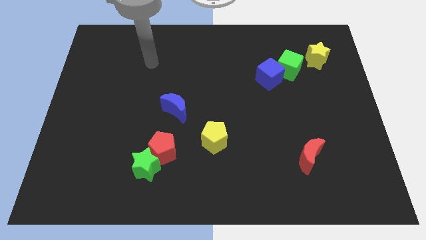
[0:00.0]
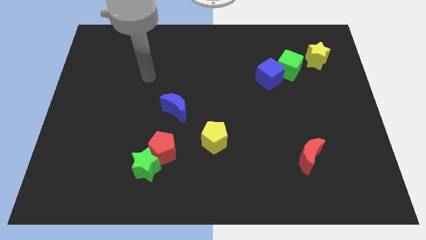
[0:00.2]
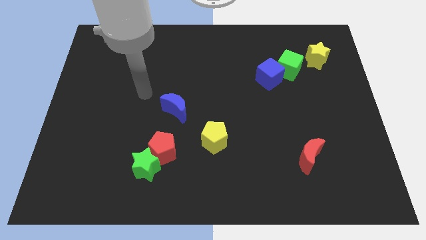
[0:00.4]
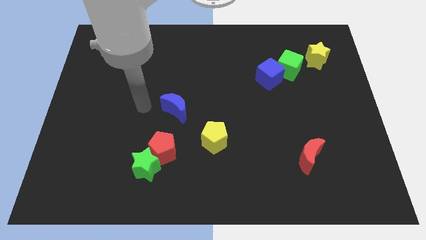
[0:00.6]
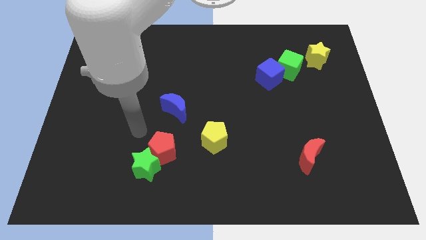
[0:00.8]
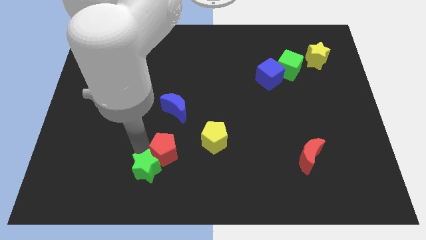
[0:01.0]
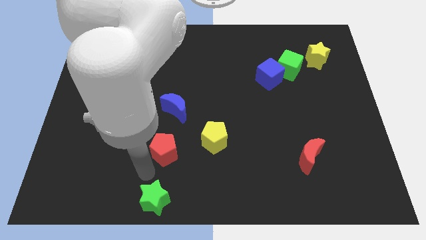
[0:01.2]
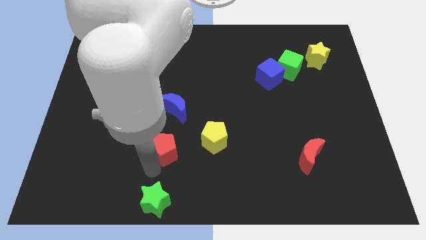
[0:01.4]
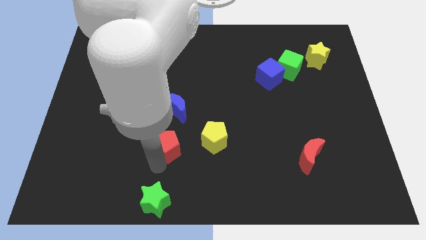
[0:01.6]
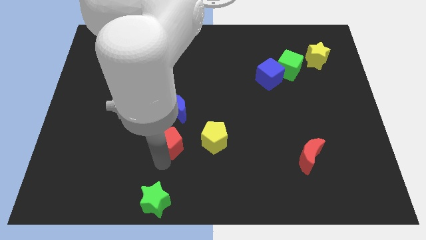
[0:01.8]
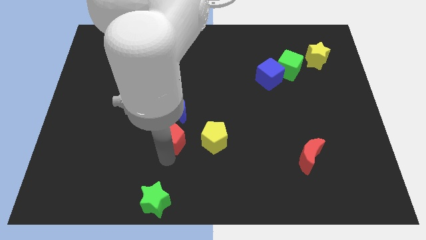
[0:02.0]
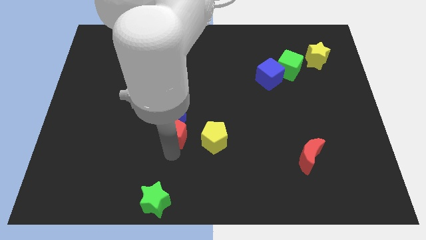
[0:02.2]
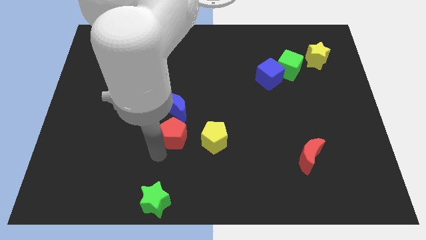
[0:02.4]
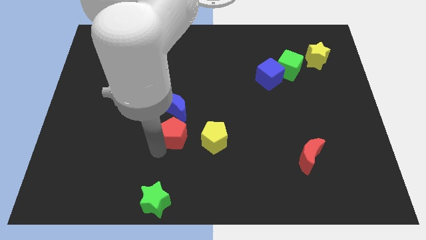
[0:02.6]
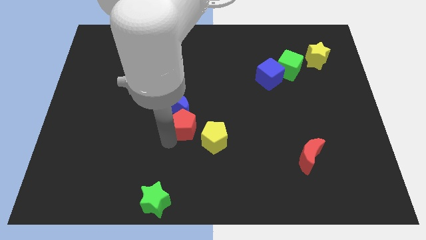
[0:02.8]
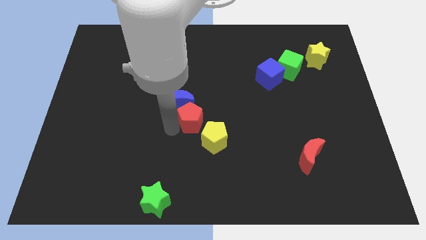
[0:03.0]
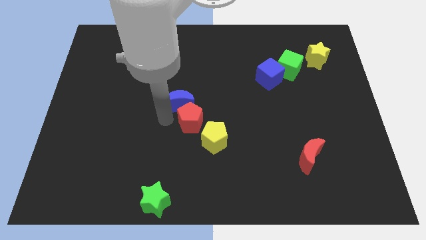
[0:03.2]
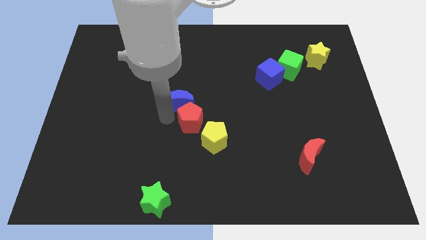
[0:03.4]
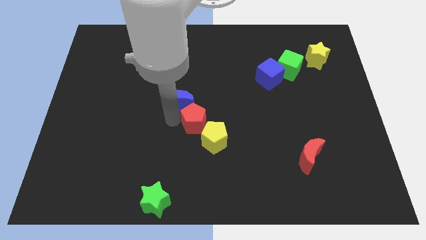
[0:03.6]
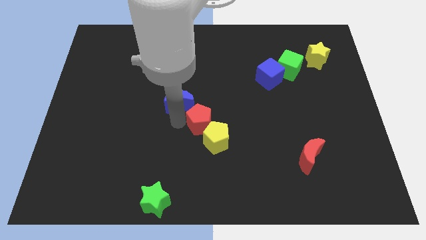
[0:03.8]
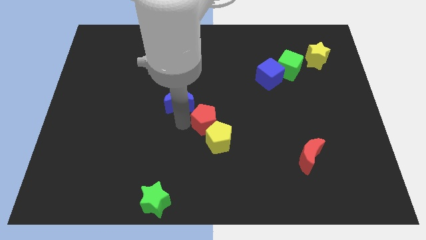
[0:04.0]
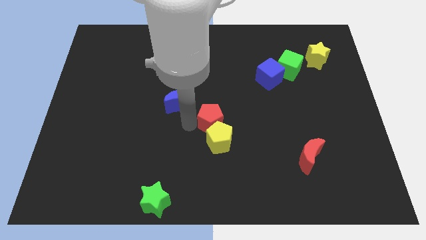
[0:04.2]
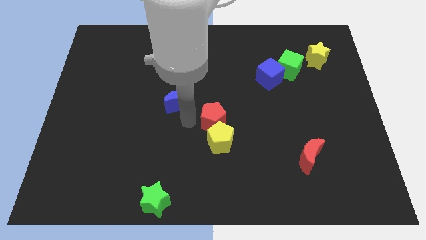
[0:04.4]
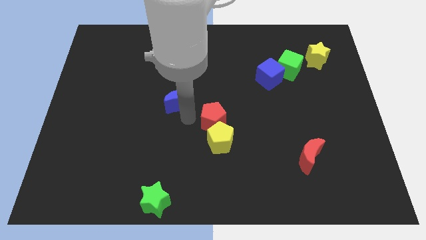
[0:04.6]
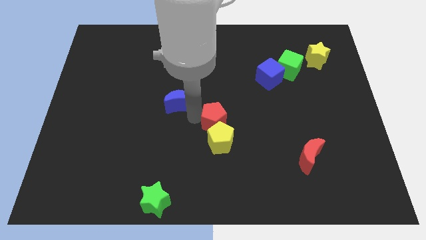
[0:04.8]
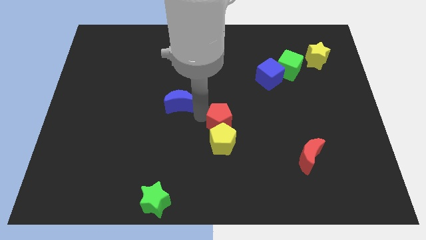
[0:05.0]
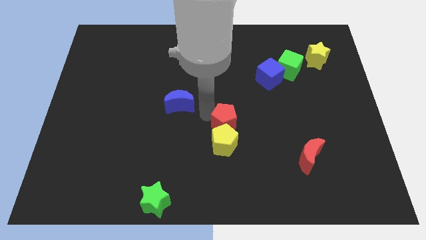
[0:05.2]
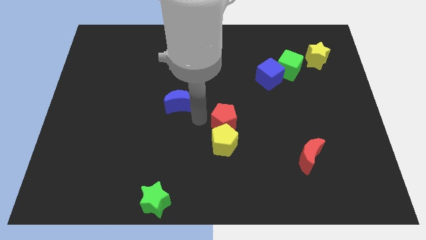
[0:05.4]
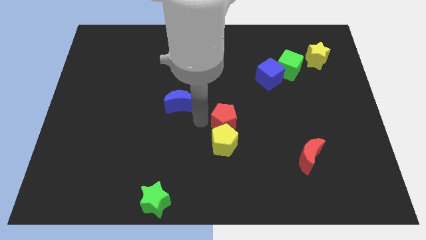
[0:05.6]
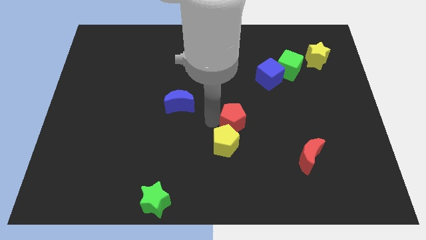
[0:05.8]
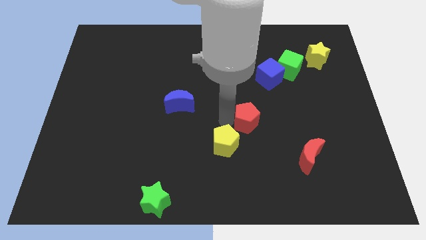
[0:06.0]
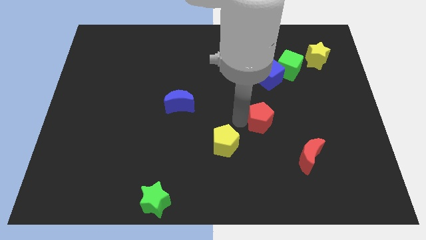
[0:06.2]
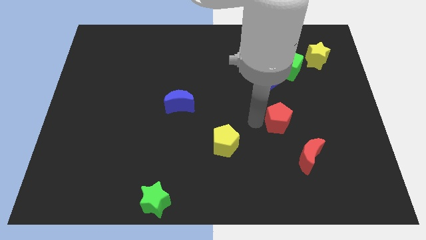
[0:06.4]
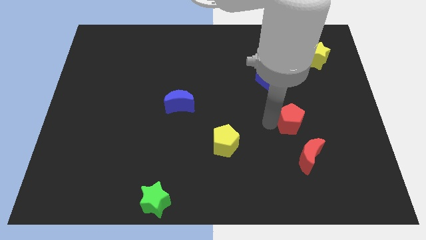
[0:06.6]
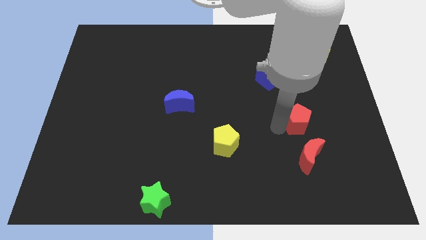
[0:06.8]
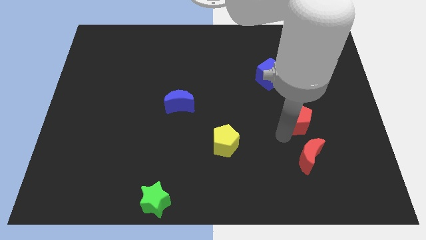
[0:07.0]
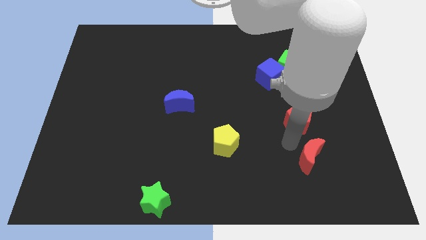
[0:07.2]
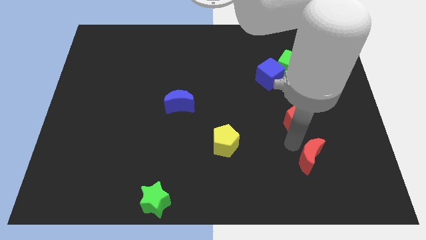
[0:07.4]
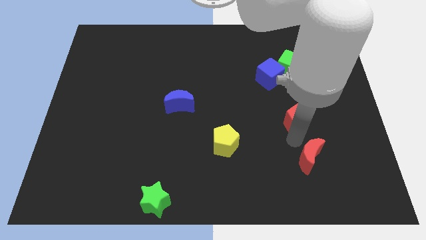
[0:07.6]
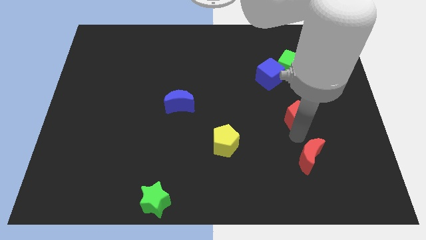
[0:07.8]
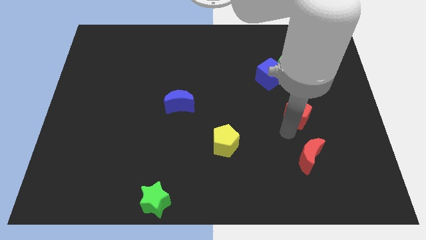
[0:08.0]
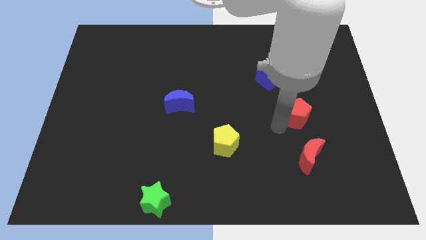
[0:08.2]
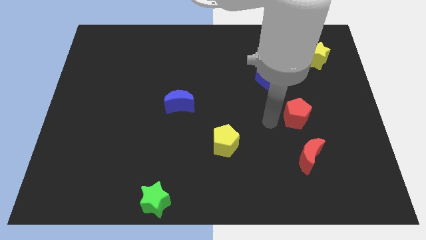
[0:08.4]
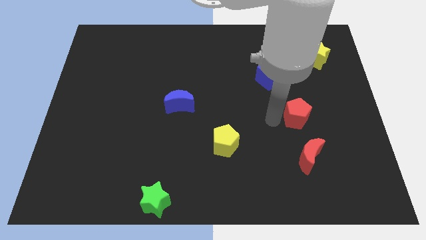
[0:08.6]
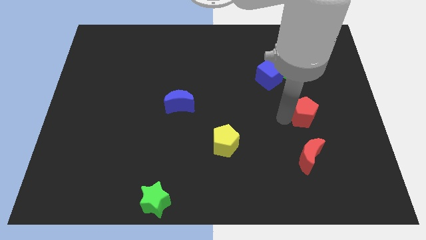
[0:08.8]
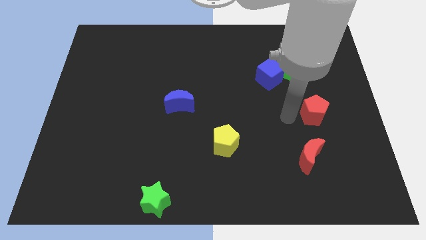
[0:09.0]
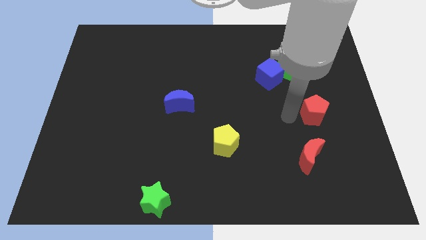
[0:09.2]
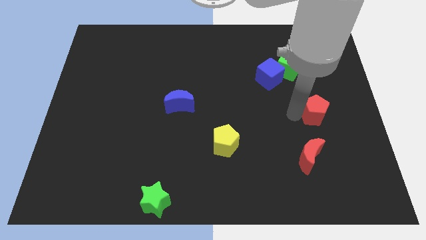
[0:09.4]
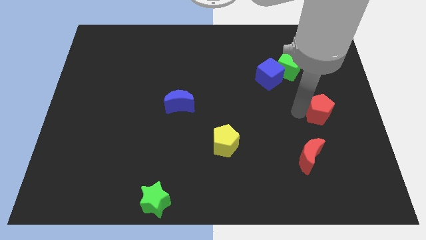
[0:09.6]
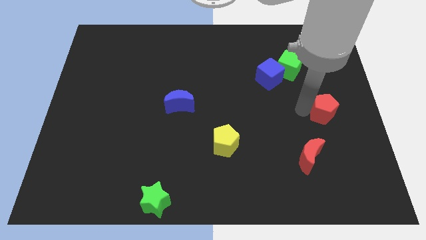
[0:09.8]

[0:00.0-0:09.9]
slide the red pentagon to the right side

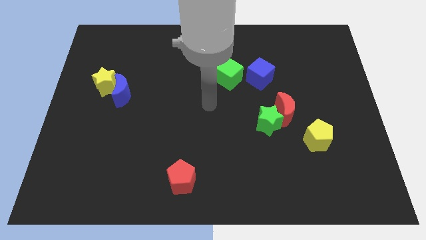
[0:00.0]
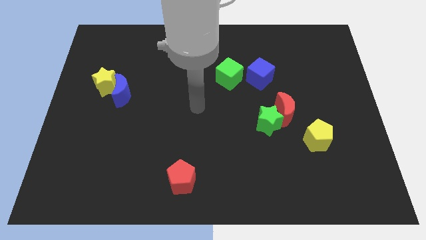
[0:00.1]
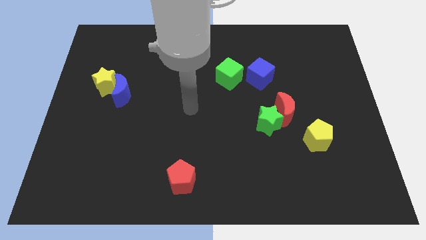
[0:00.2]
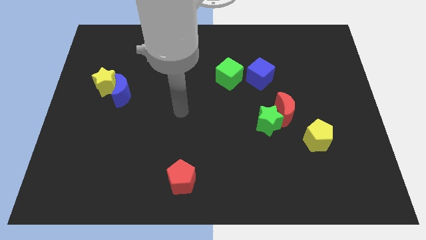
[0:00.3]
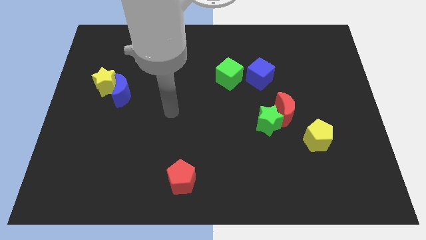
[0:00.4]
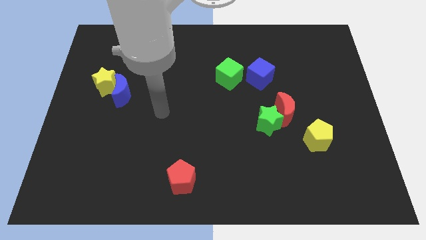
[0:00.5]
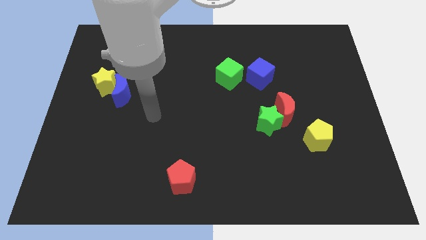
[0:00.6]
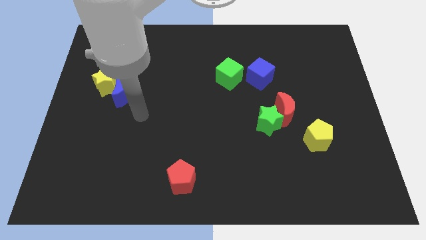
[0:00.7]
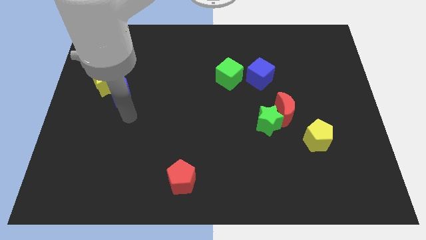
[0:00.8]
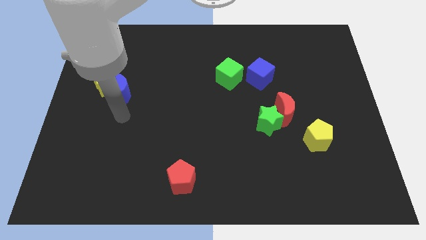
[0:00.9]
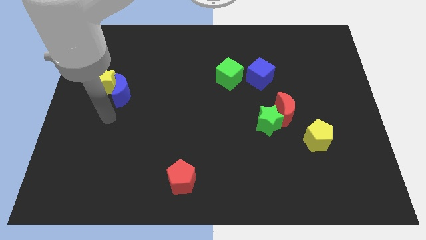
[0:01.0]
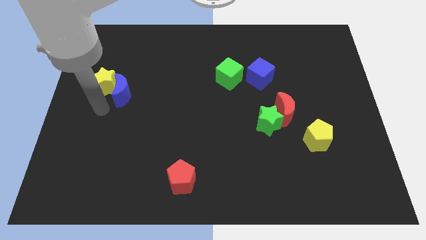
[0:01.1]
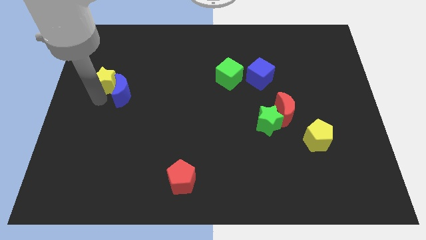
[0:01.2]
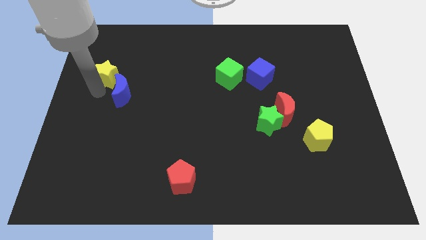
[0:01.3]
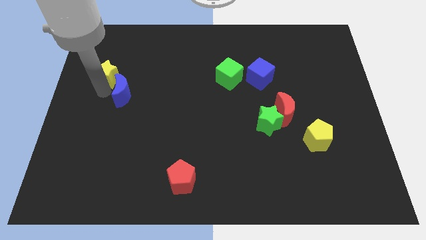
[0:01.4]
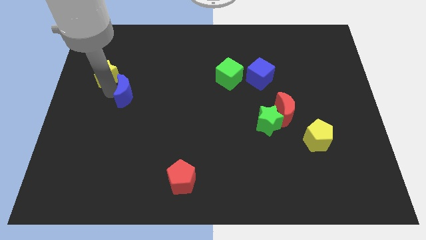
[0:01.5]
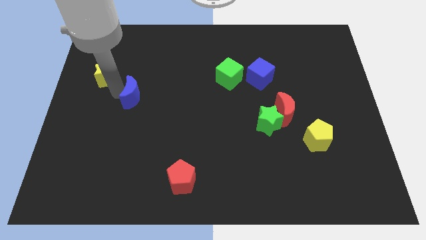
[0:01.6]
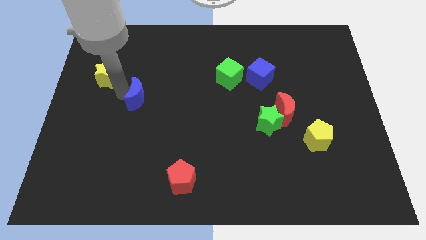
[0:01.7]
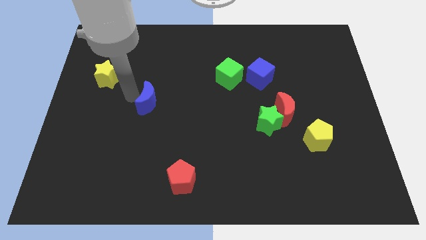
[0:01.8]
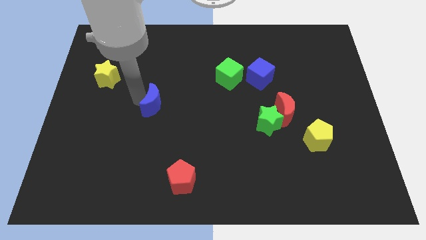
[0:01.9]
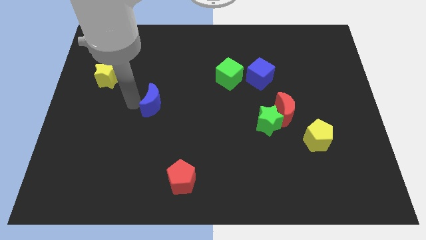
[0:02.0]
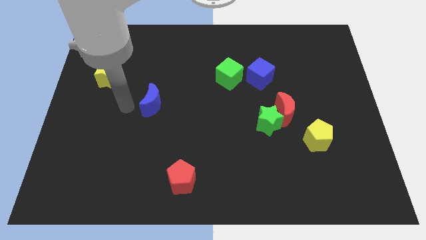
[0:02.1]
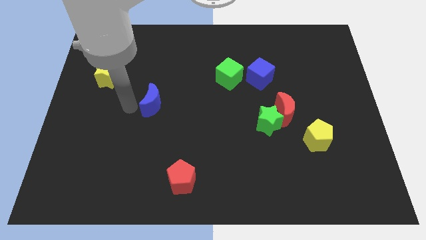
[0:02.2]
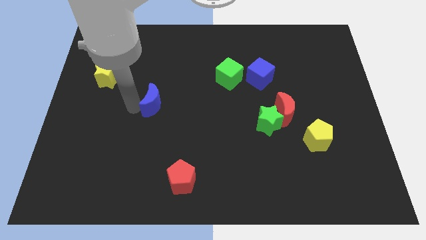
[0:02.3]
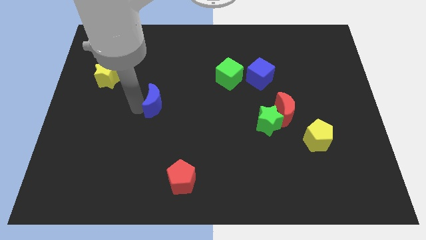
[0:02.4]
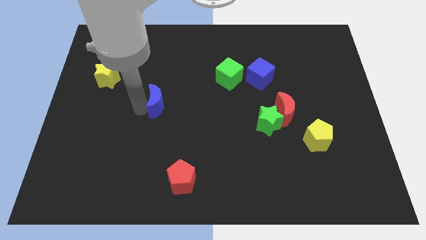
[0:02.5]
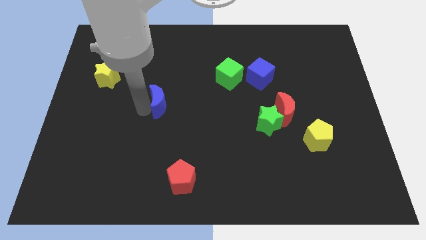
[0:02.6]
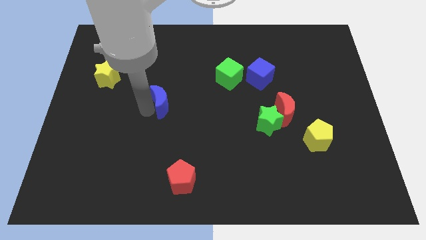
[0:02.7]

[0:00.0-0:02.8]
move the blue moon to the middle
